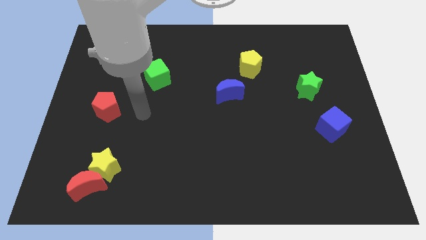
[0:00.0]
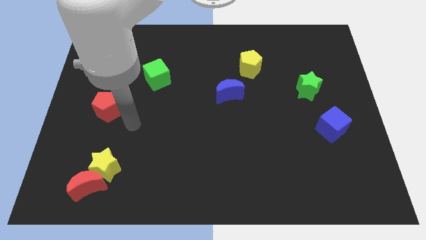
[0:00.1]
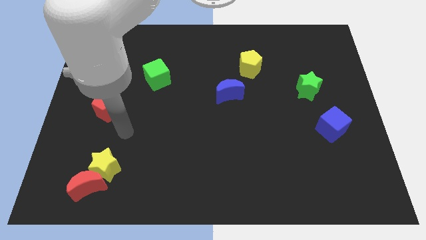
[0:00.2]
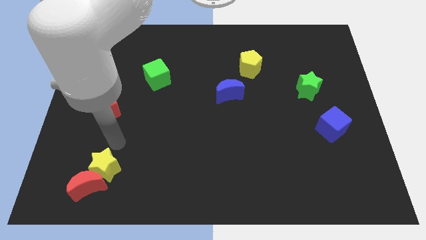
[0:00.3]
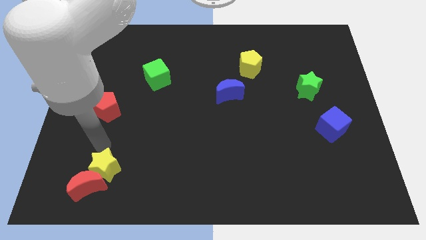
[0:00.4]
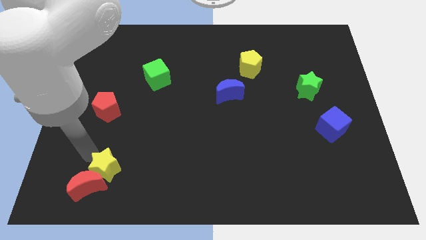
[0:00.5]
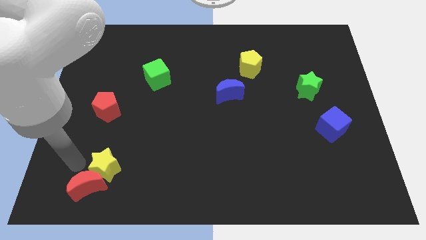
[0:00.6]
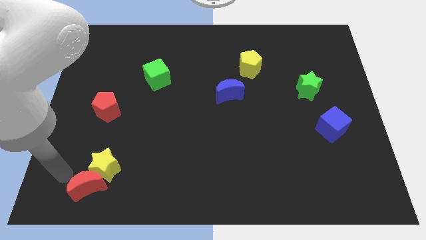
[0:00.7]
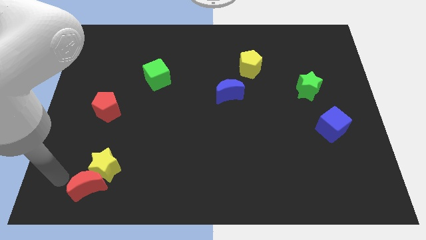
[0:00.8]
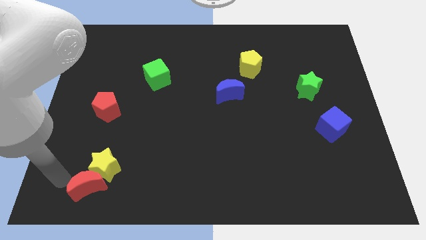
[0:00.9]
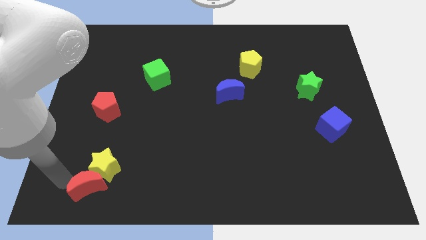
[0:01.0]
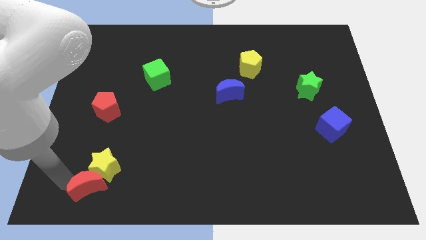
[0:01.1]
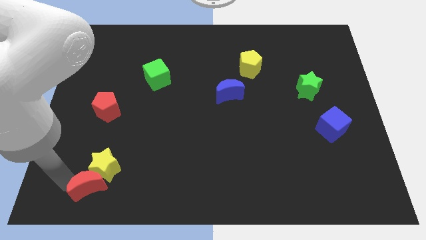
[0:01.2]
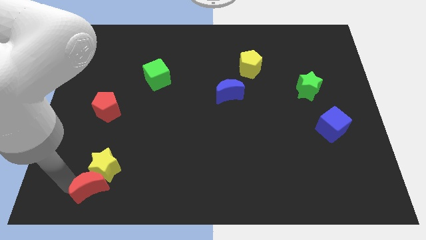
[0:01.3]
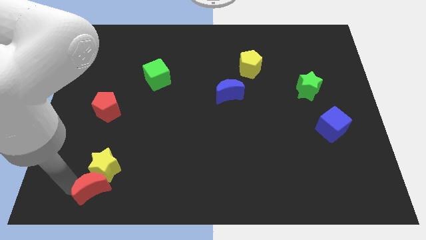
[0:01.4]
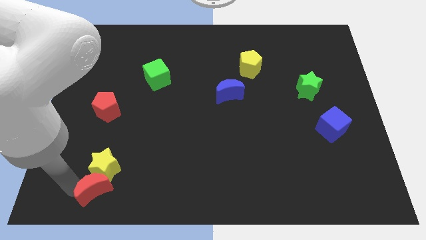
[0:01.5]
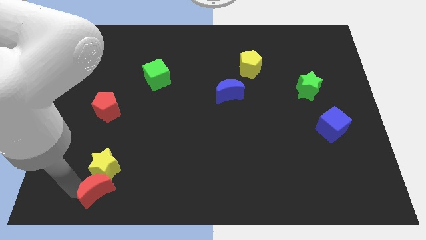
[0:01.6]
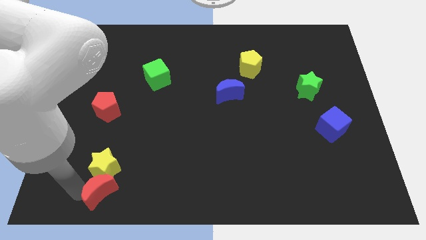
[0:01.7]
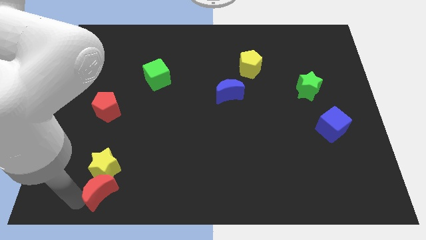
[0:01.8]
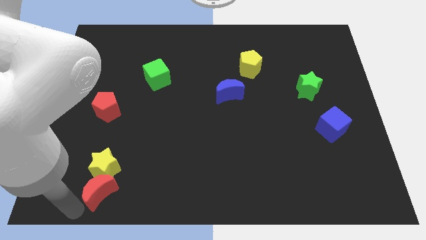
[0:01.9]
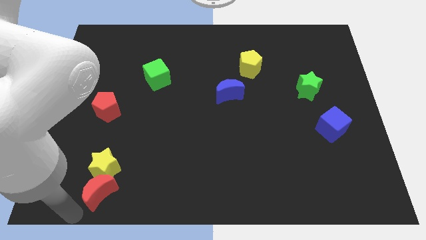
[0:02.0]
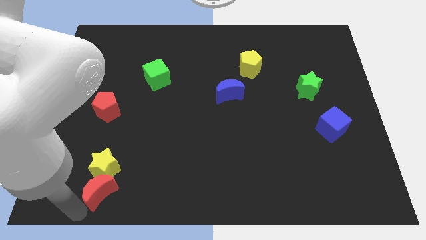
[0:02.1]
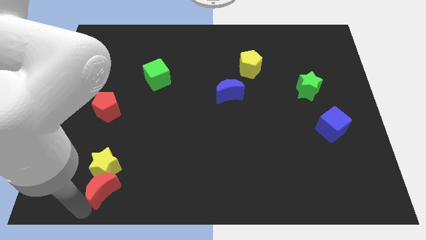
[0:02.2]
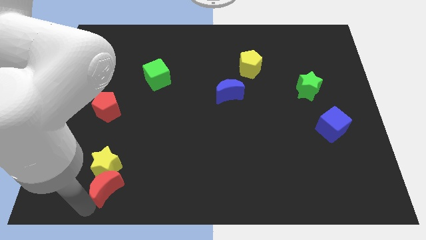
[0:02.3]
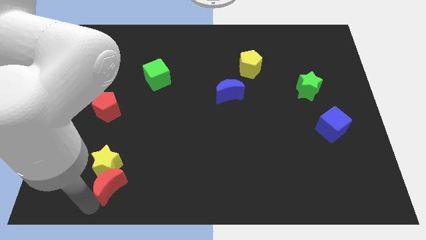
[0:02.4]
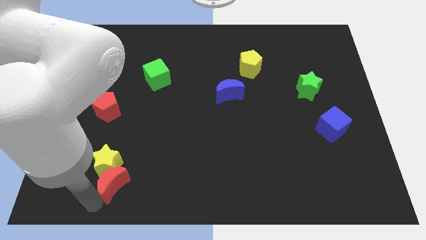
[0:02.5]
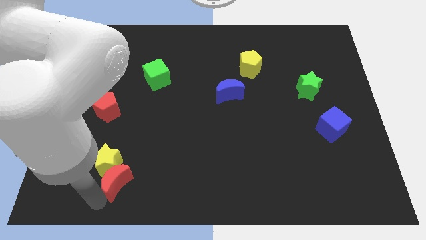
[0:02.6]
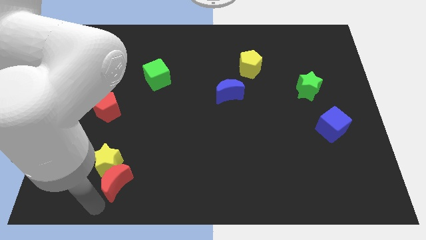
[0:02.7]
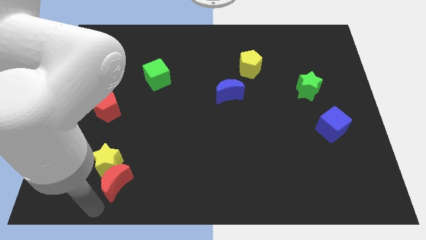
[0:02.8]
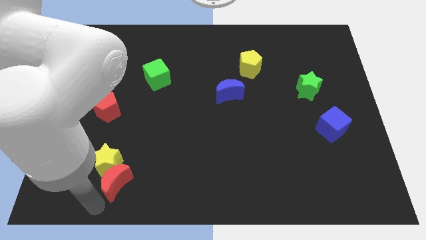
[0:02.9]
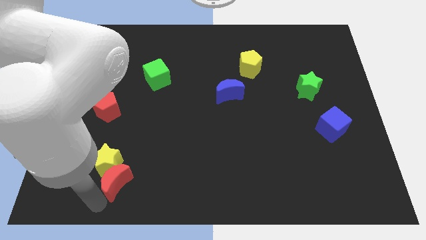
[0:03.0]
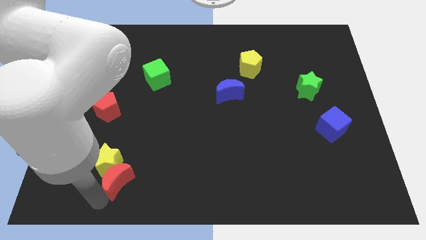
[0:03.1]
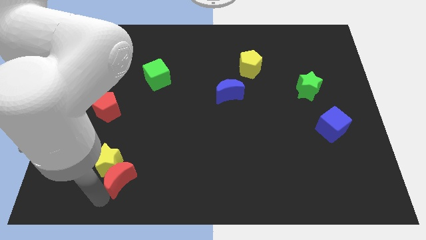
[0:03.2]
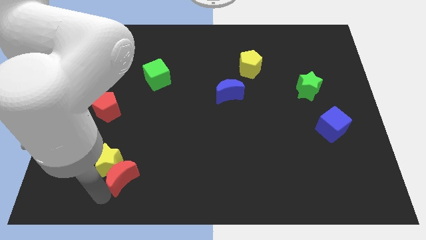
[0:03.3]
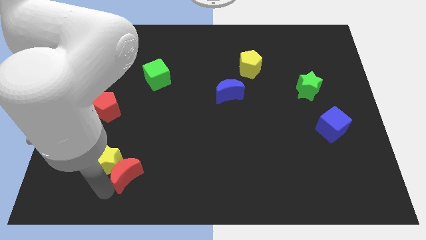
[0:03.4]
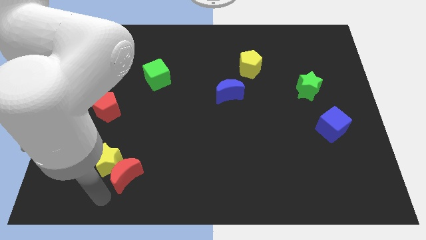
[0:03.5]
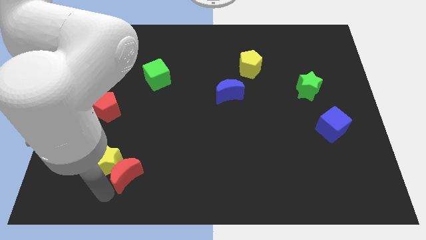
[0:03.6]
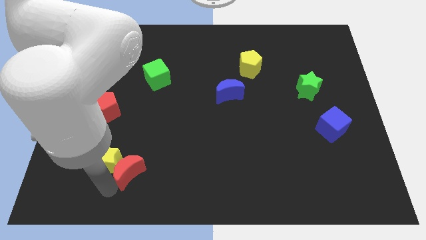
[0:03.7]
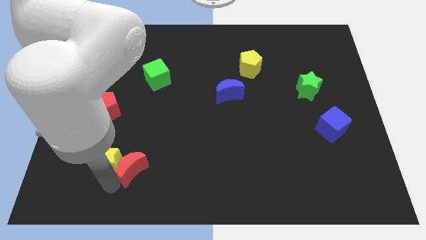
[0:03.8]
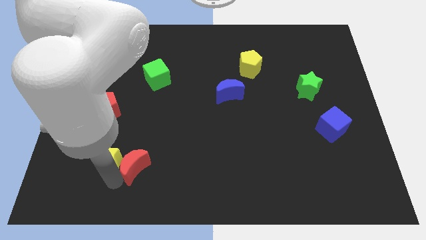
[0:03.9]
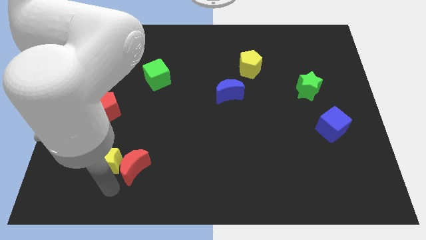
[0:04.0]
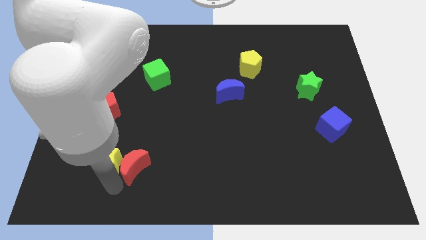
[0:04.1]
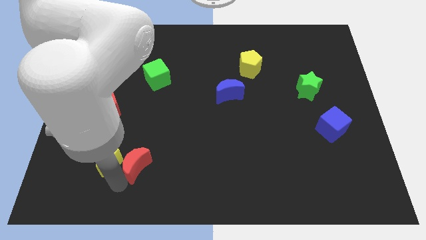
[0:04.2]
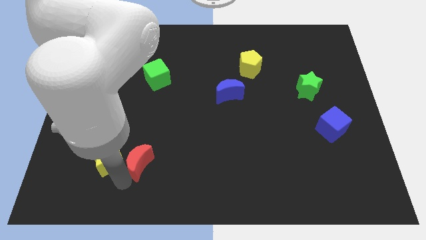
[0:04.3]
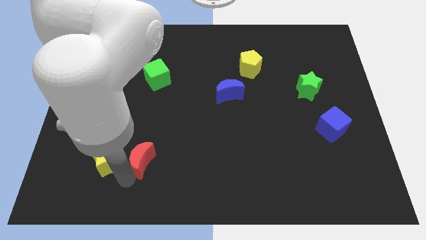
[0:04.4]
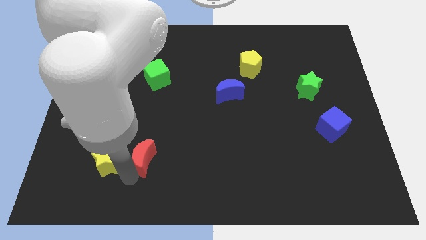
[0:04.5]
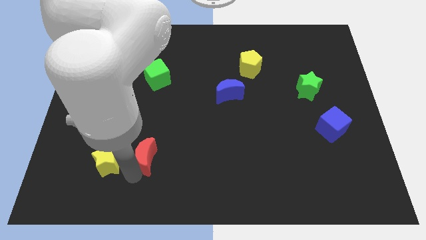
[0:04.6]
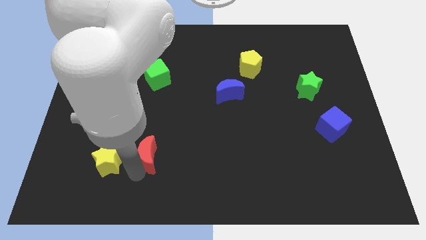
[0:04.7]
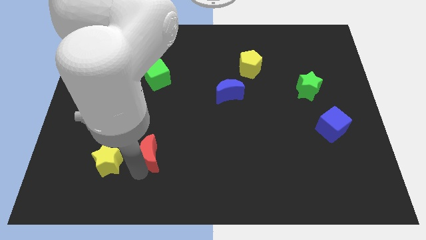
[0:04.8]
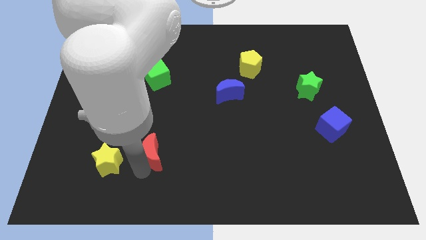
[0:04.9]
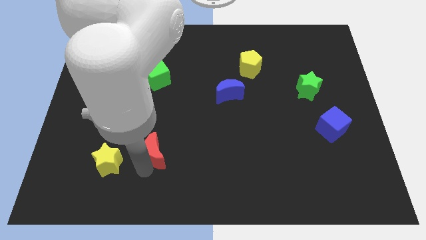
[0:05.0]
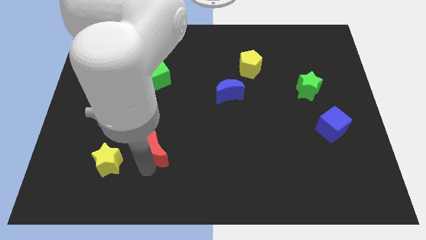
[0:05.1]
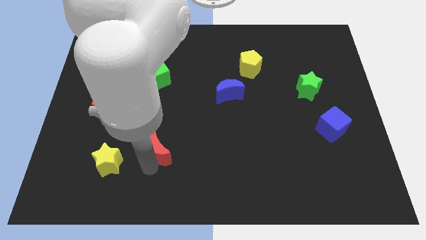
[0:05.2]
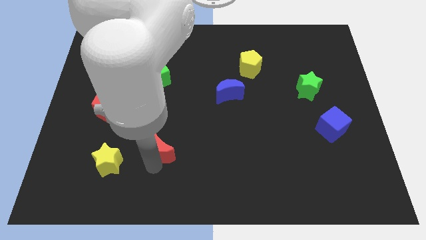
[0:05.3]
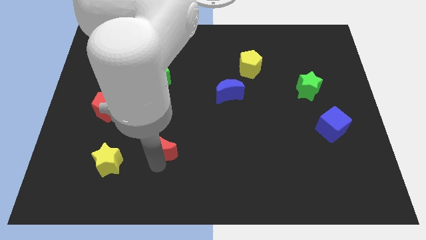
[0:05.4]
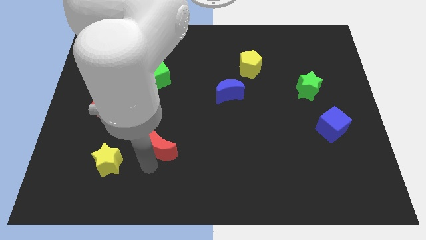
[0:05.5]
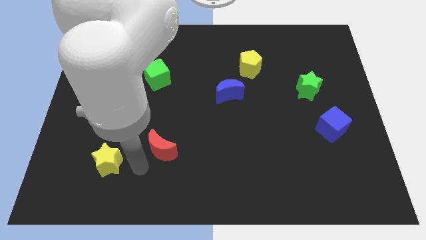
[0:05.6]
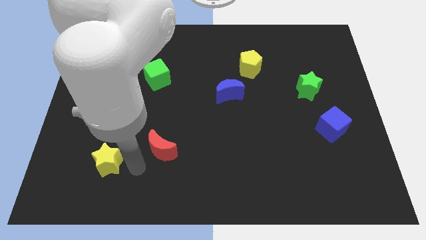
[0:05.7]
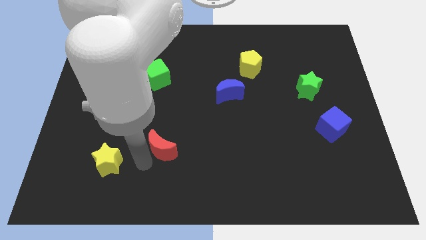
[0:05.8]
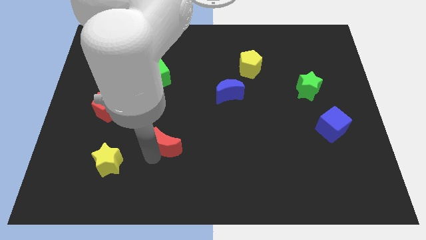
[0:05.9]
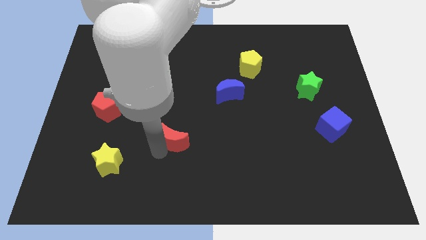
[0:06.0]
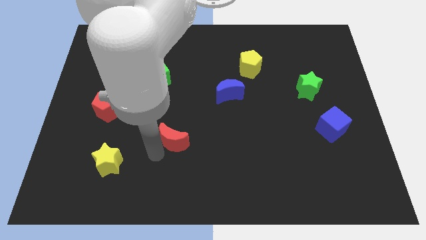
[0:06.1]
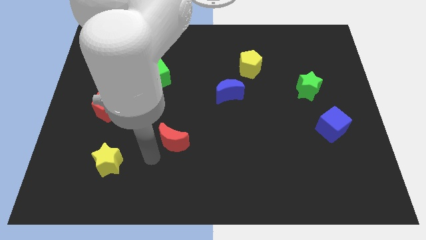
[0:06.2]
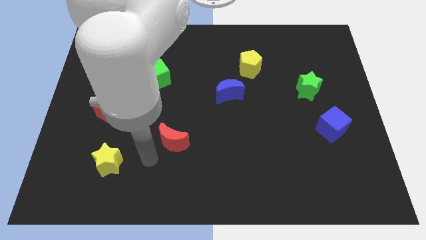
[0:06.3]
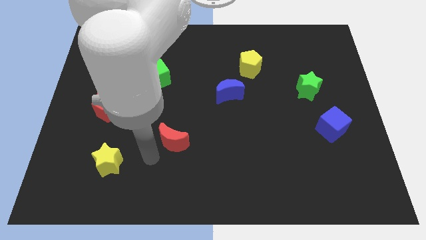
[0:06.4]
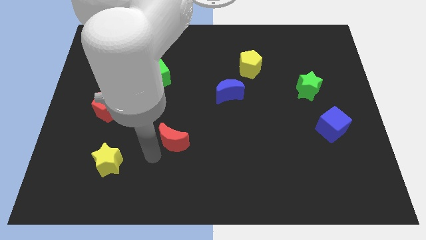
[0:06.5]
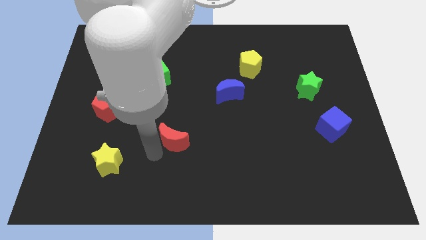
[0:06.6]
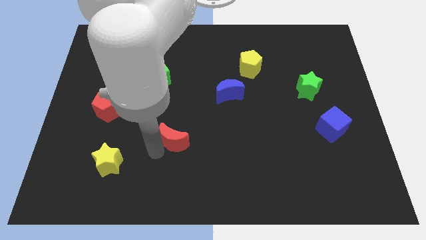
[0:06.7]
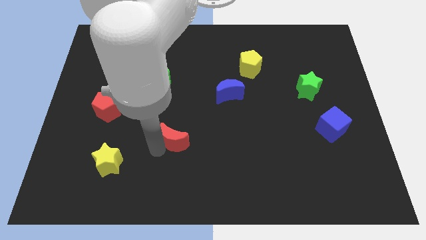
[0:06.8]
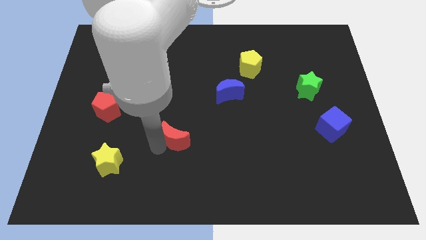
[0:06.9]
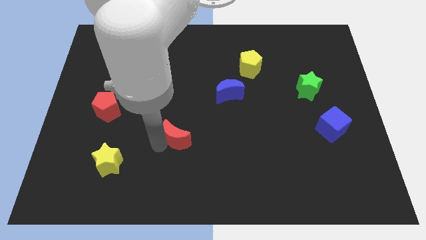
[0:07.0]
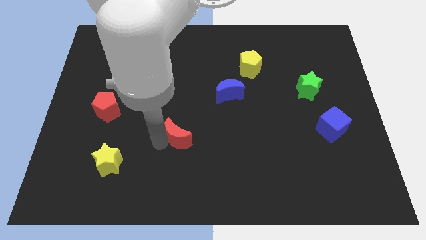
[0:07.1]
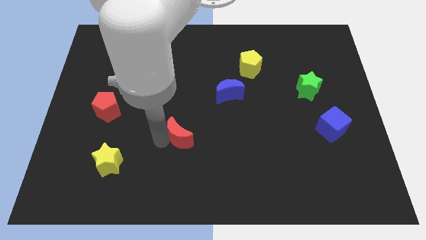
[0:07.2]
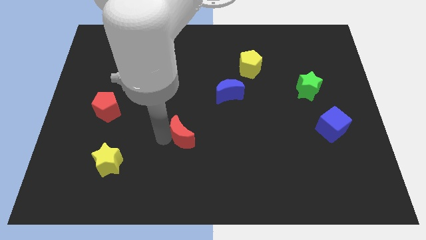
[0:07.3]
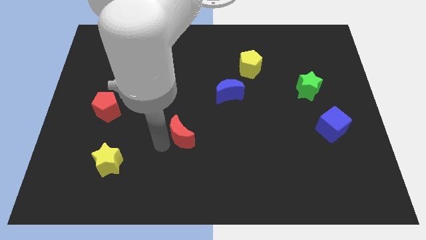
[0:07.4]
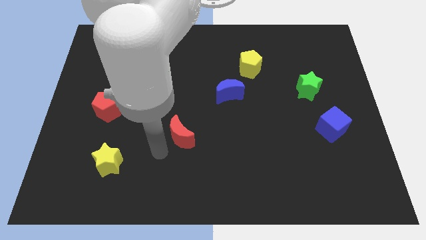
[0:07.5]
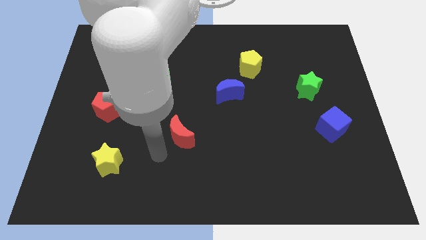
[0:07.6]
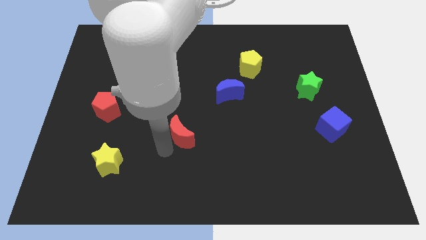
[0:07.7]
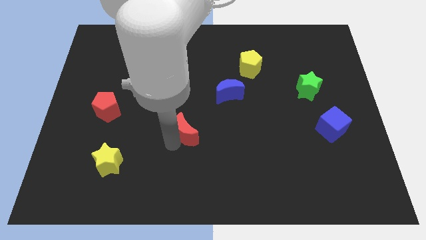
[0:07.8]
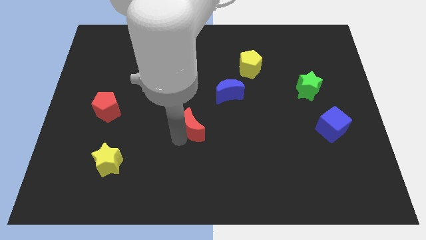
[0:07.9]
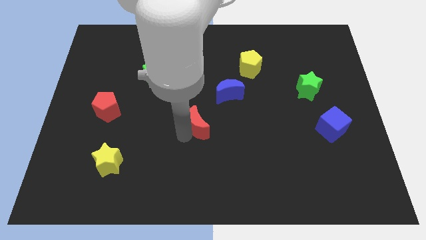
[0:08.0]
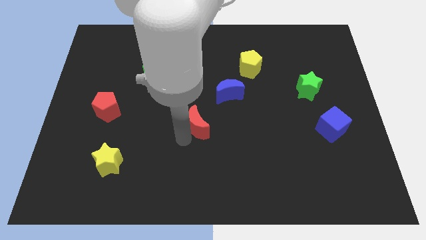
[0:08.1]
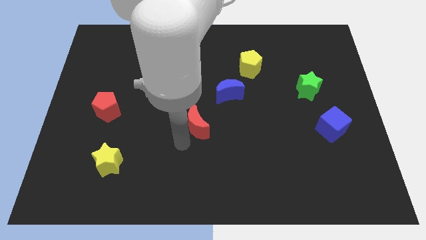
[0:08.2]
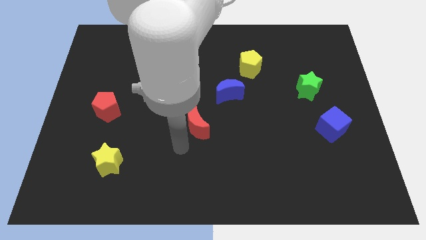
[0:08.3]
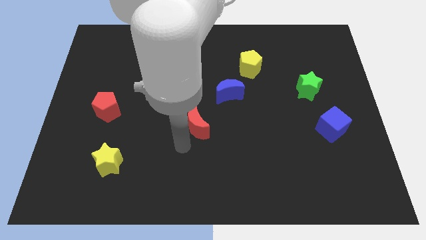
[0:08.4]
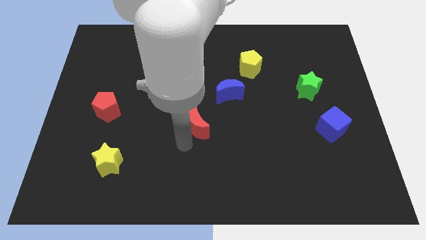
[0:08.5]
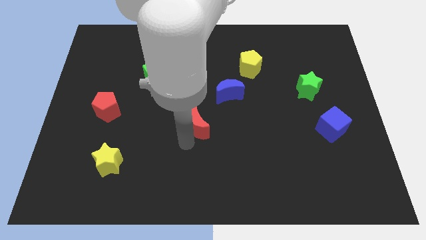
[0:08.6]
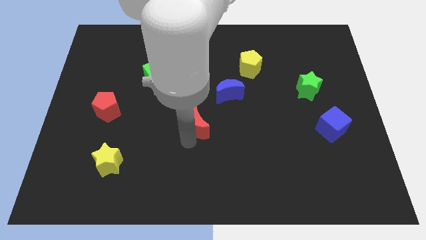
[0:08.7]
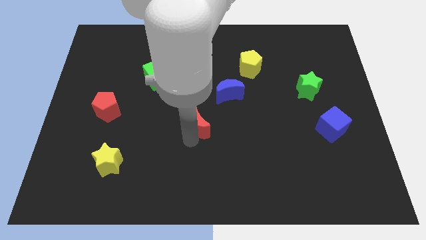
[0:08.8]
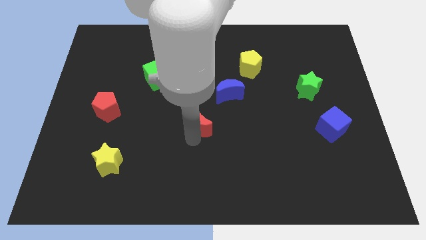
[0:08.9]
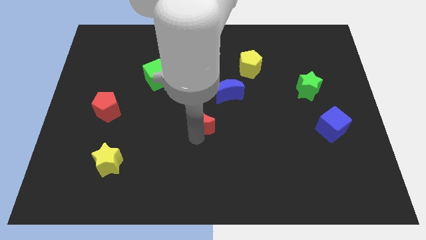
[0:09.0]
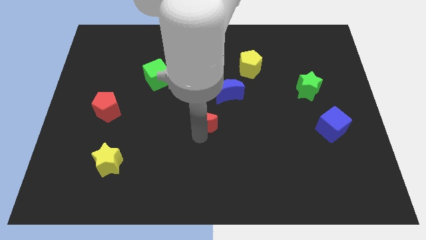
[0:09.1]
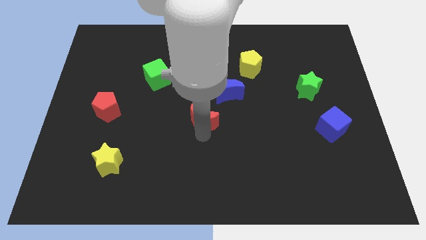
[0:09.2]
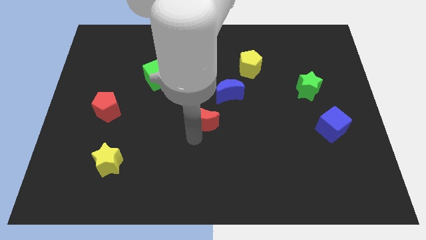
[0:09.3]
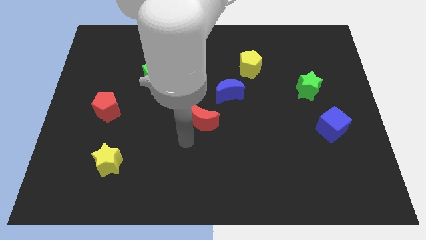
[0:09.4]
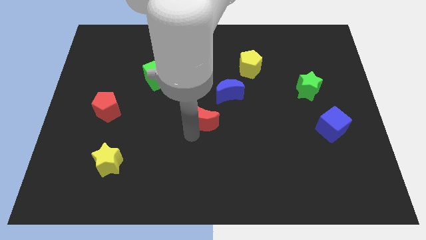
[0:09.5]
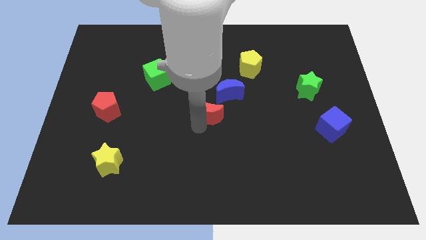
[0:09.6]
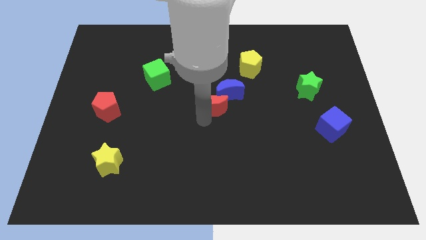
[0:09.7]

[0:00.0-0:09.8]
slide the red moon towards the blue moon
